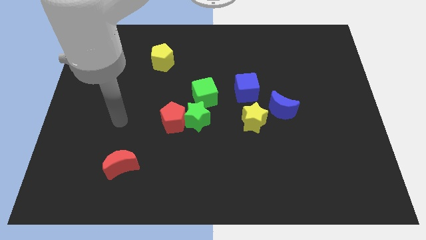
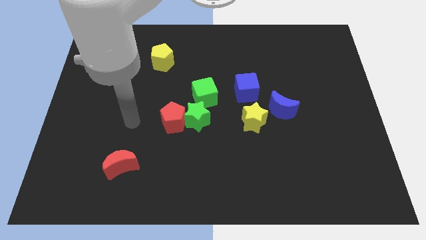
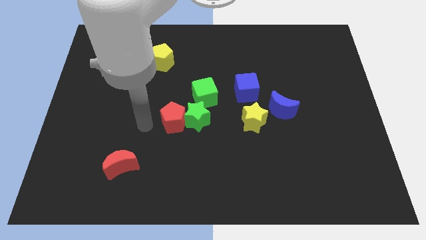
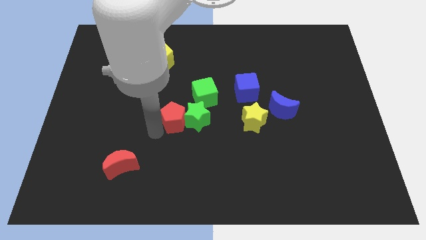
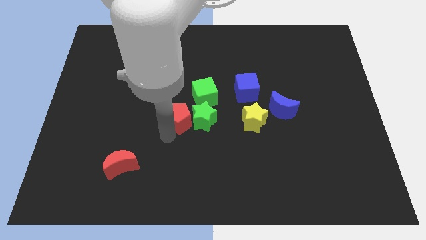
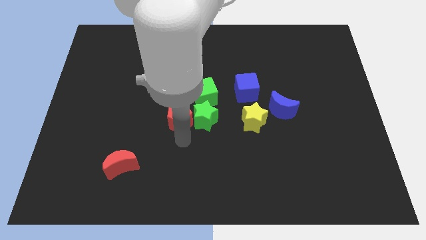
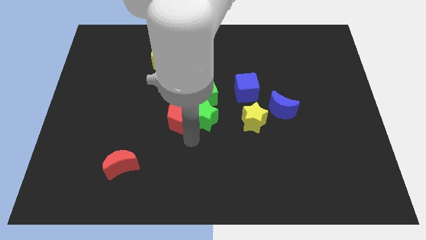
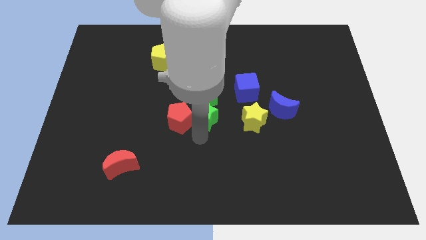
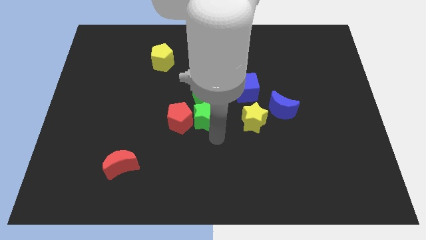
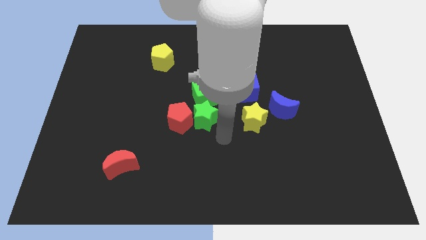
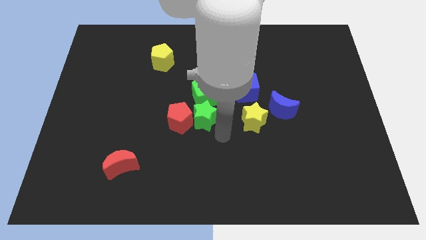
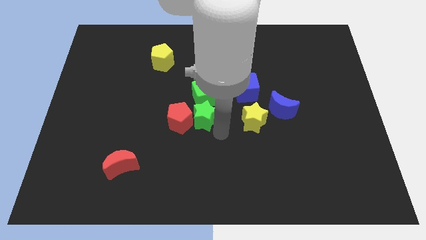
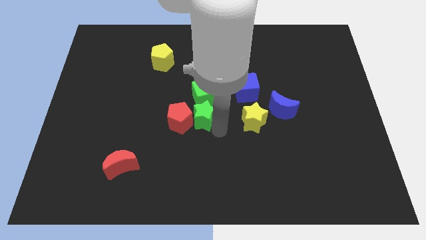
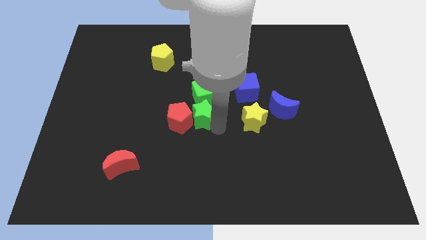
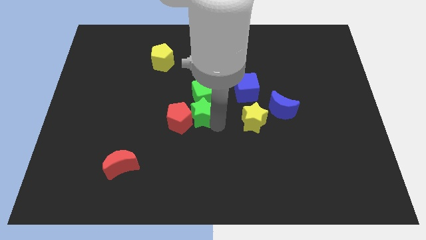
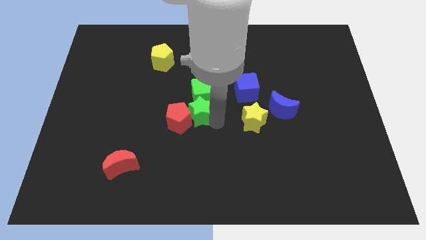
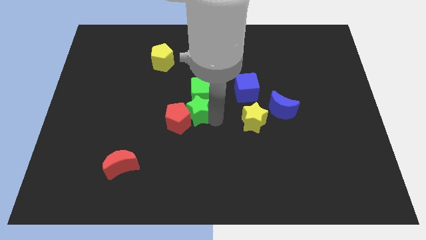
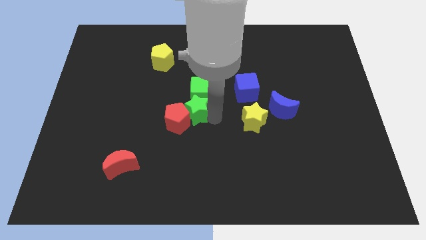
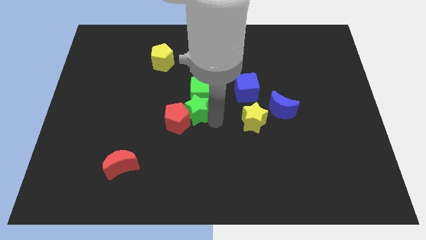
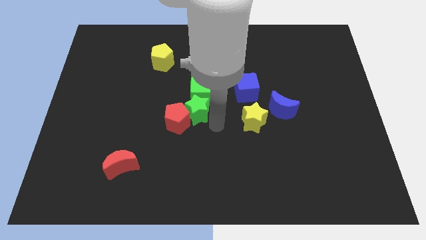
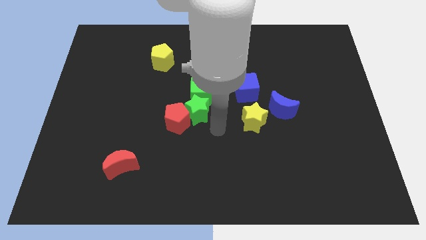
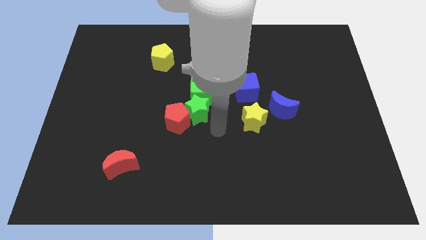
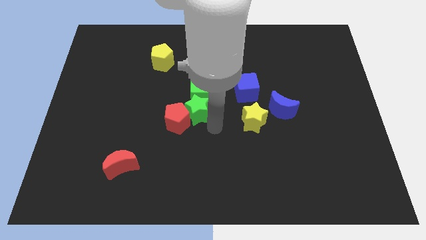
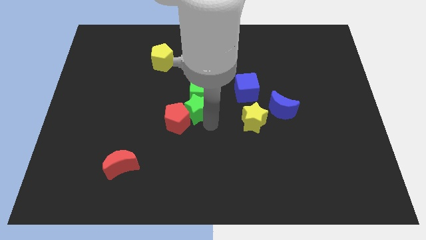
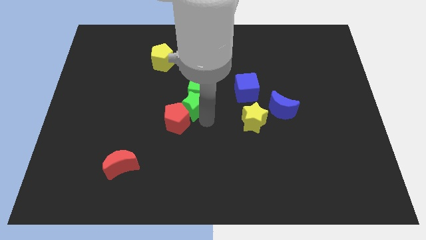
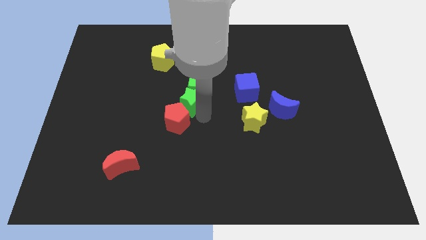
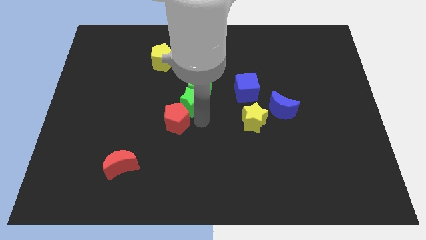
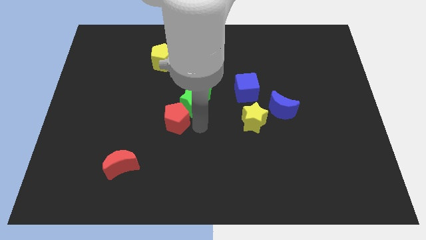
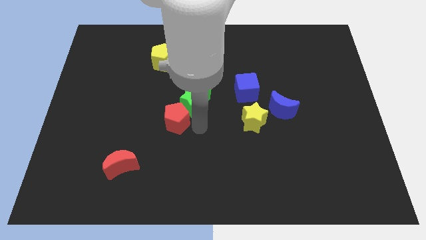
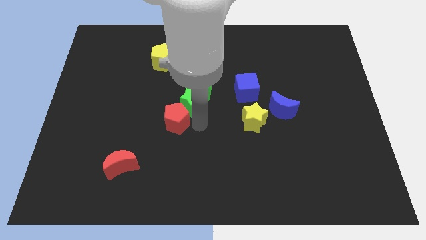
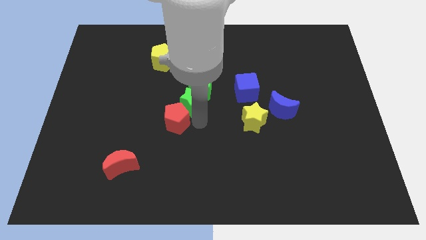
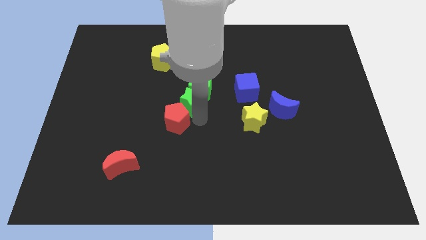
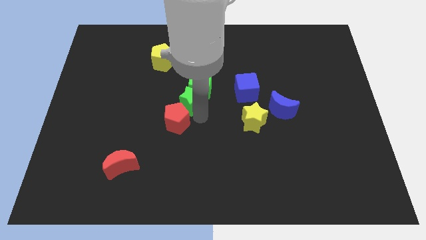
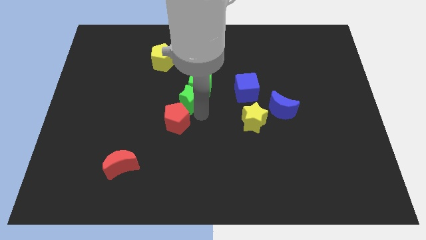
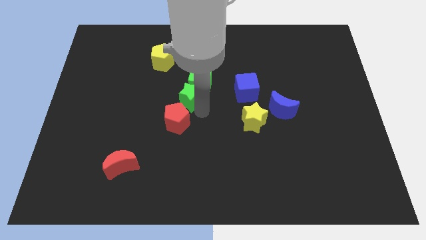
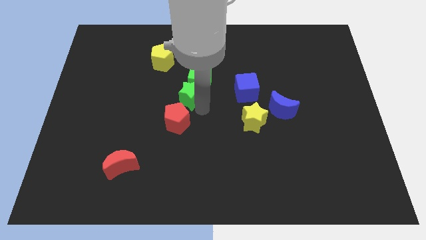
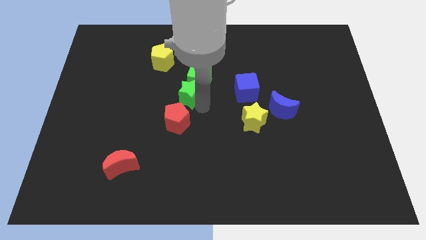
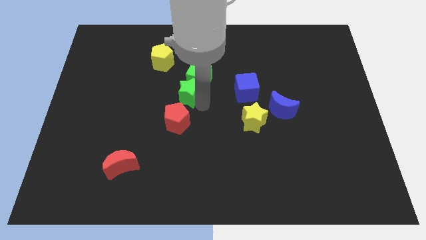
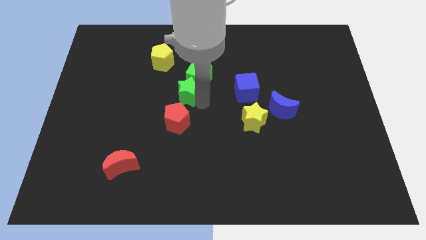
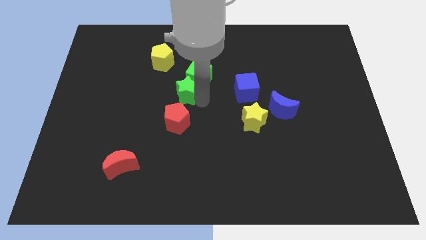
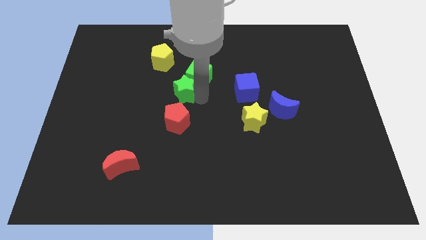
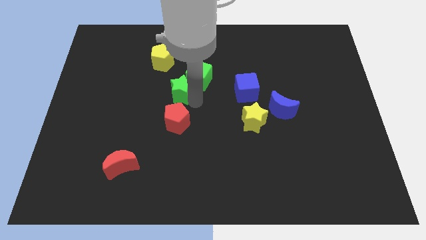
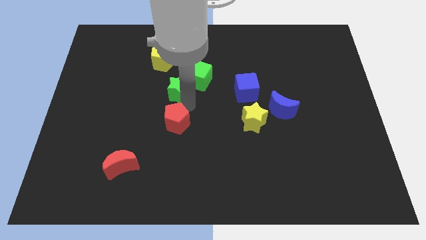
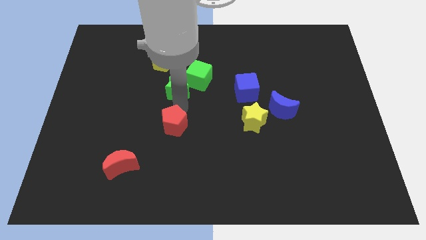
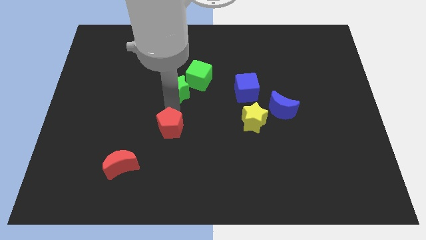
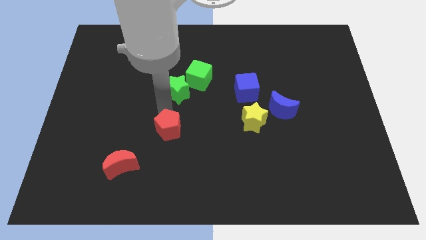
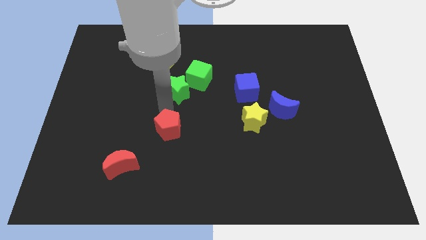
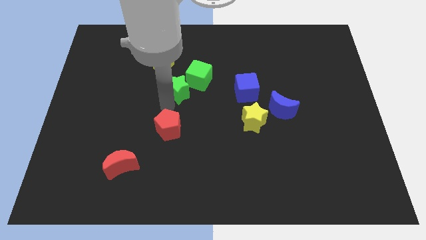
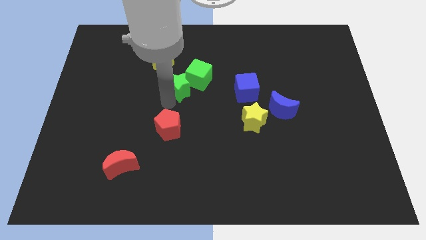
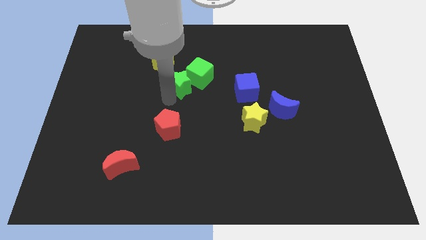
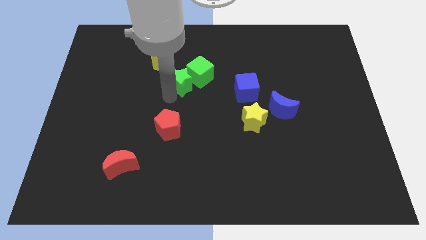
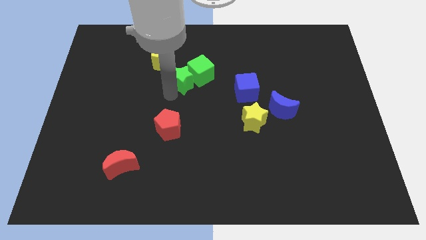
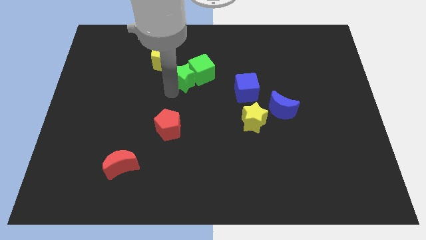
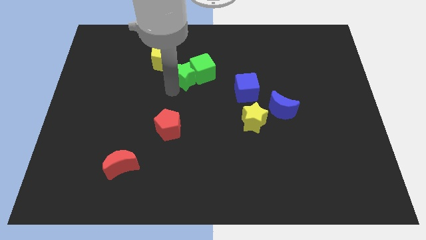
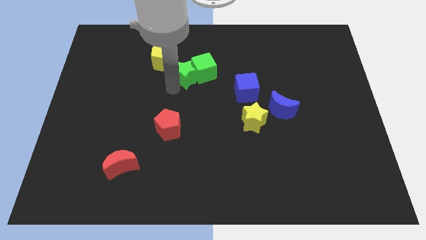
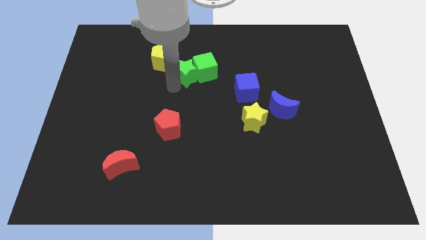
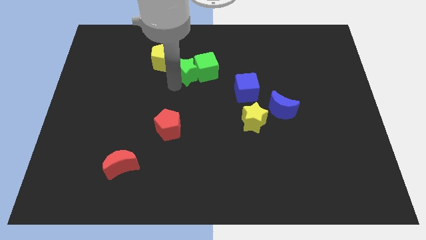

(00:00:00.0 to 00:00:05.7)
put the green star just right of the yellow pentagon
